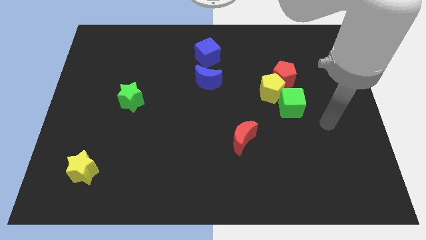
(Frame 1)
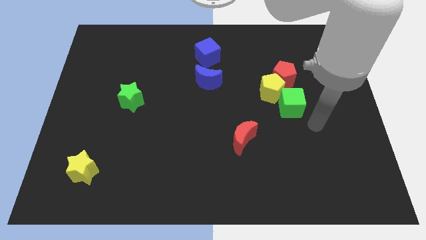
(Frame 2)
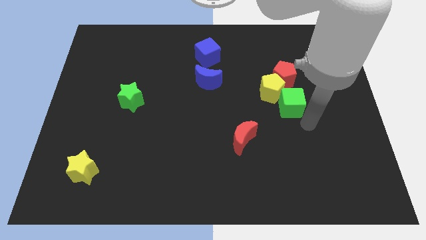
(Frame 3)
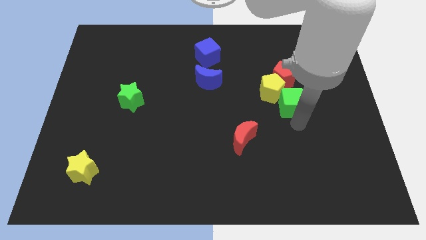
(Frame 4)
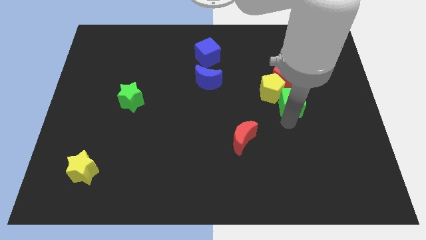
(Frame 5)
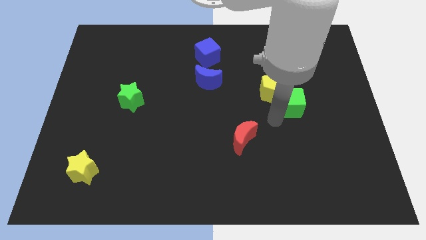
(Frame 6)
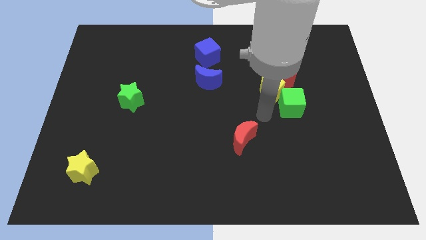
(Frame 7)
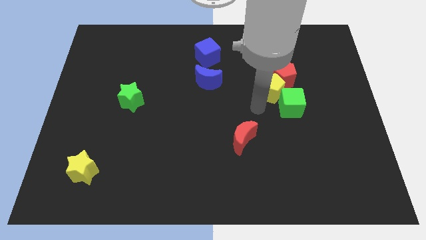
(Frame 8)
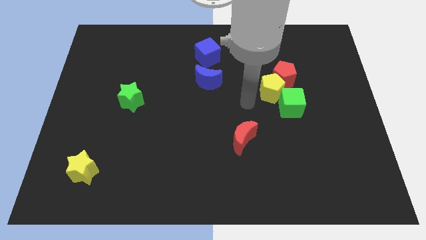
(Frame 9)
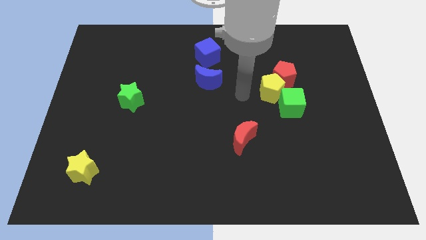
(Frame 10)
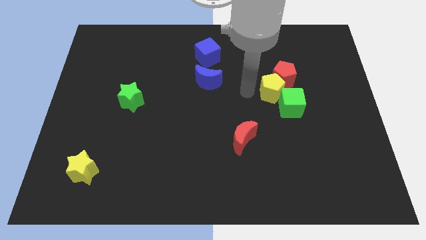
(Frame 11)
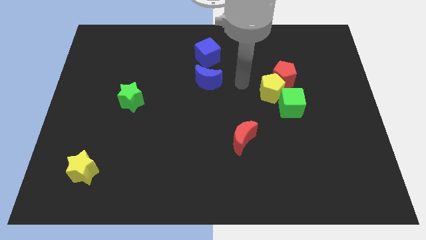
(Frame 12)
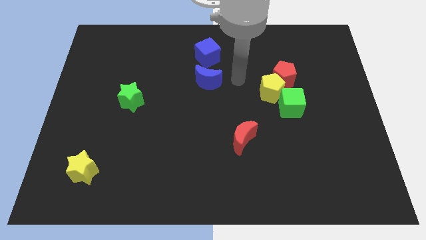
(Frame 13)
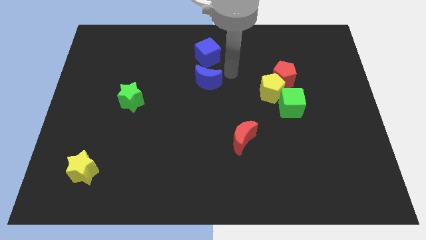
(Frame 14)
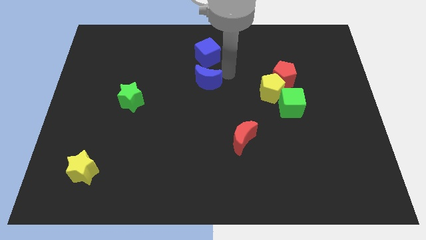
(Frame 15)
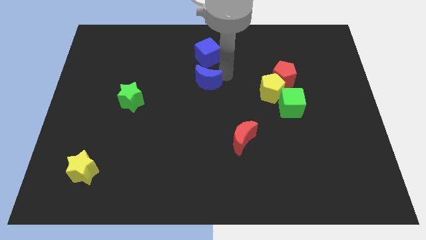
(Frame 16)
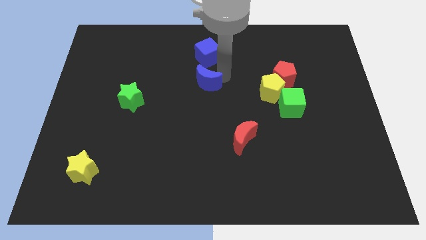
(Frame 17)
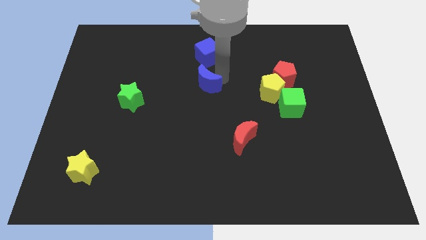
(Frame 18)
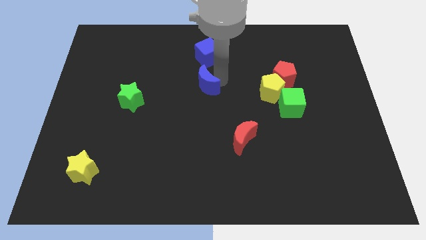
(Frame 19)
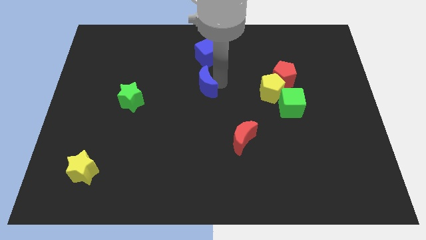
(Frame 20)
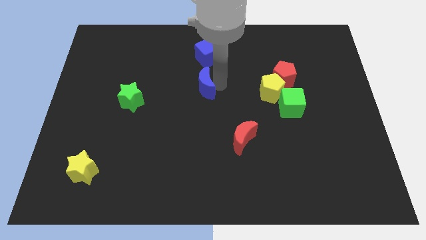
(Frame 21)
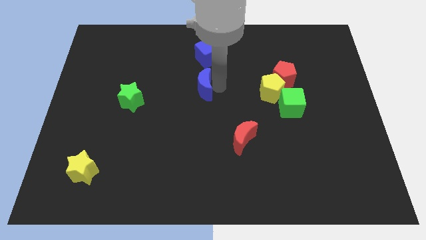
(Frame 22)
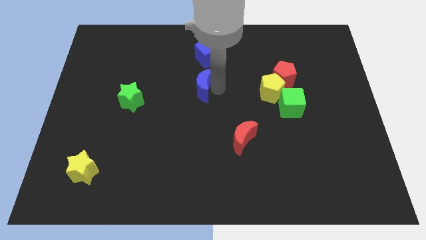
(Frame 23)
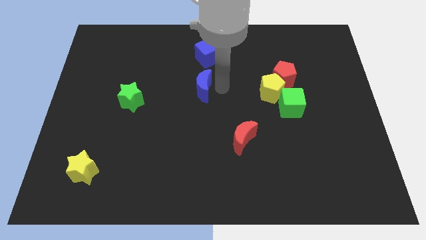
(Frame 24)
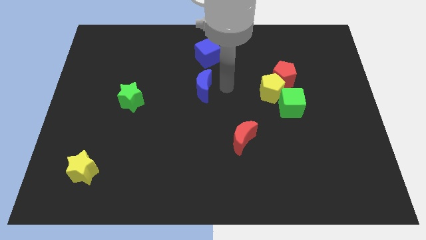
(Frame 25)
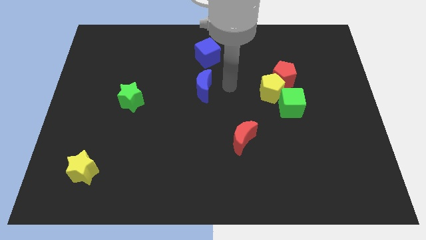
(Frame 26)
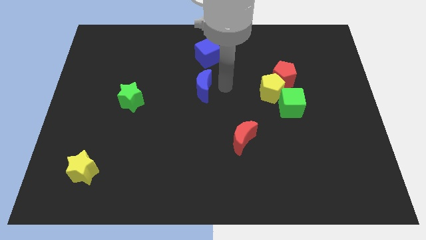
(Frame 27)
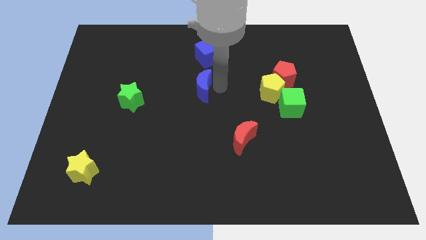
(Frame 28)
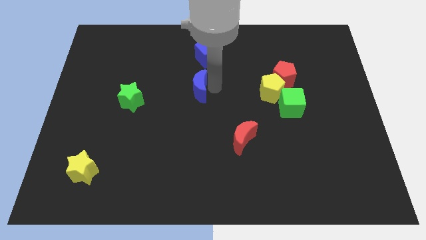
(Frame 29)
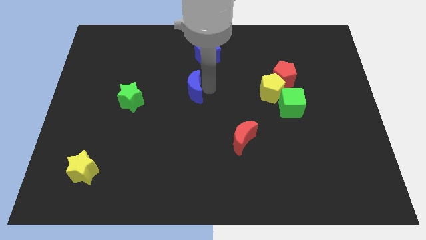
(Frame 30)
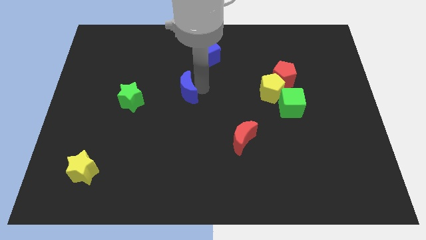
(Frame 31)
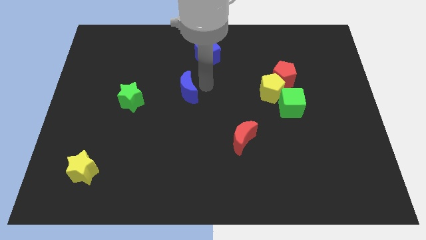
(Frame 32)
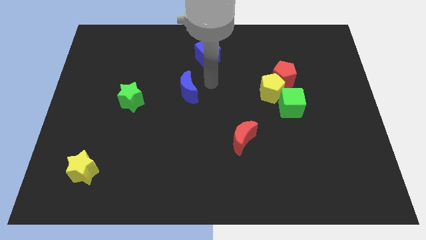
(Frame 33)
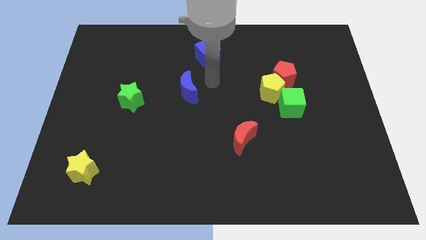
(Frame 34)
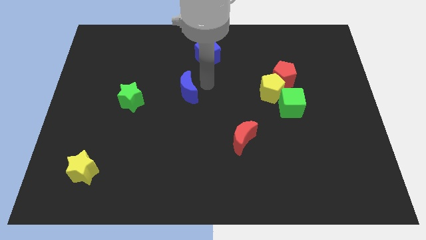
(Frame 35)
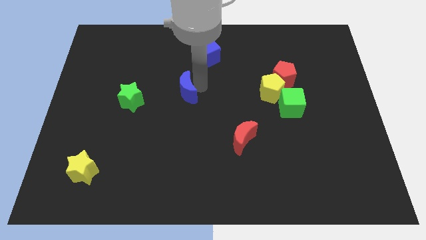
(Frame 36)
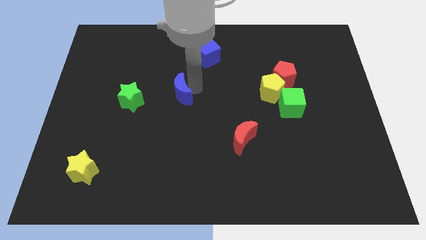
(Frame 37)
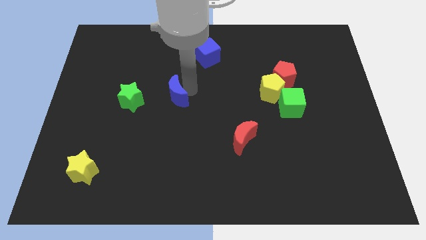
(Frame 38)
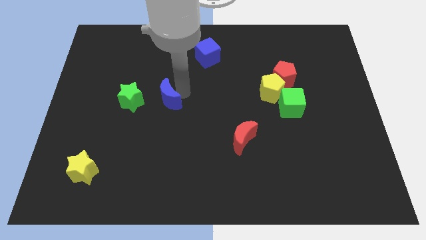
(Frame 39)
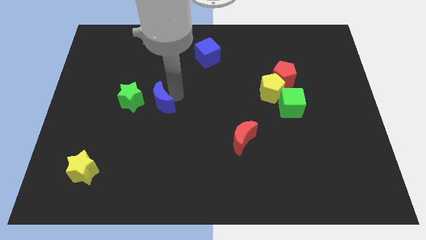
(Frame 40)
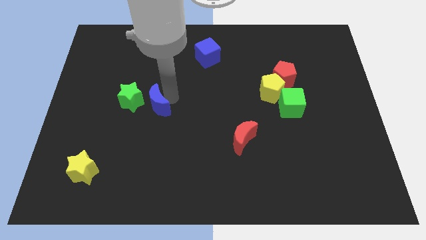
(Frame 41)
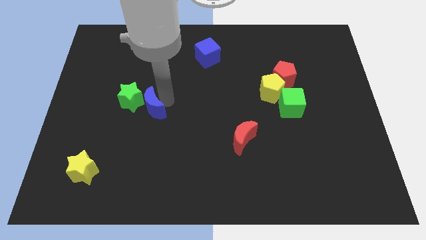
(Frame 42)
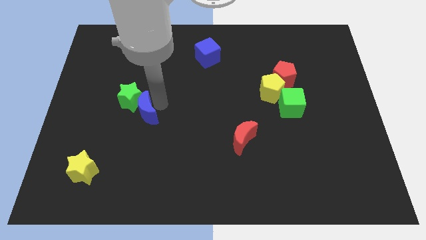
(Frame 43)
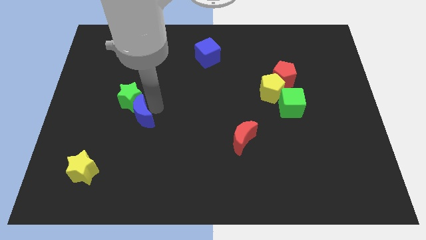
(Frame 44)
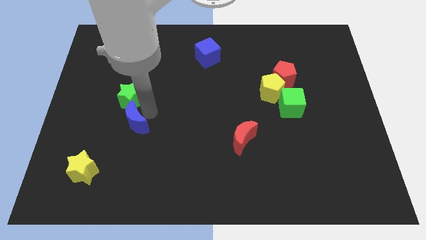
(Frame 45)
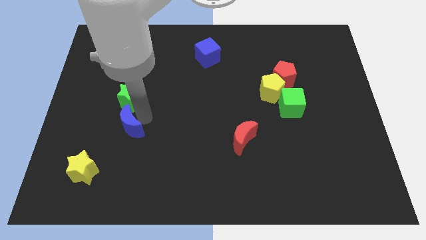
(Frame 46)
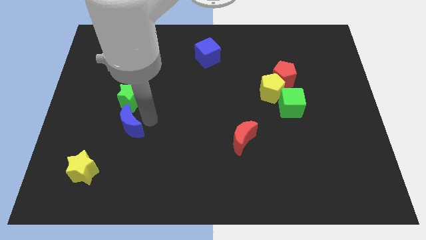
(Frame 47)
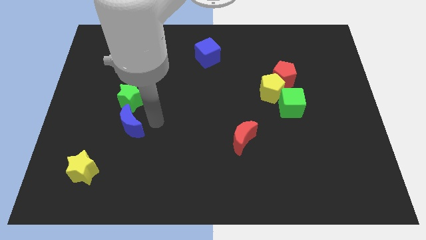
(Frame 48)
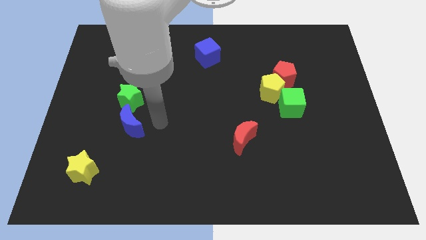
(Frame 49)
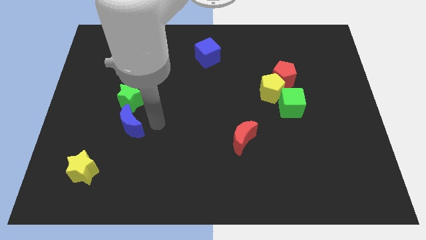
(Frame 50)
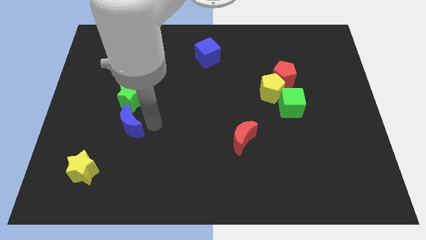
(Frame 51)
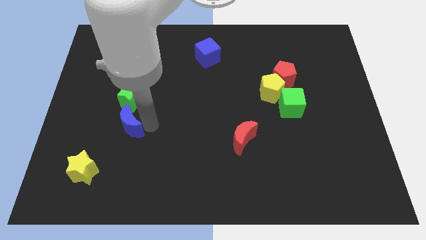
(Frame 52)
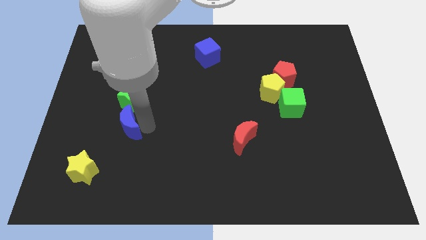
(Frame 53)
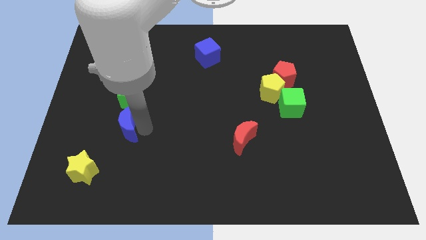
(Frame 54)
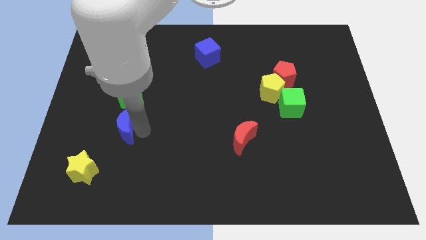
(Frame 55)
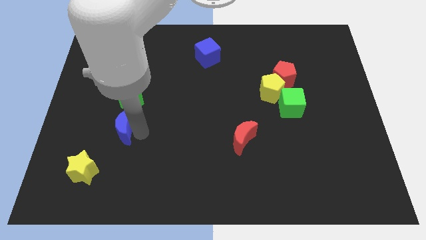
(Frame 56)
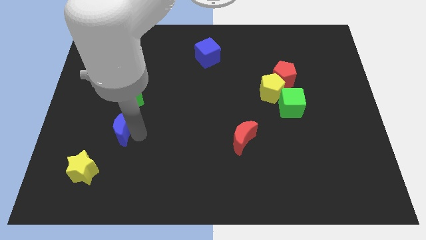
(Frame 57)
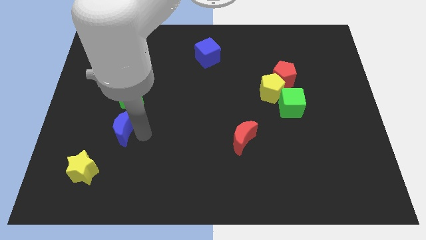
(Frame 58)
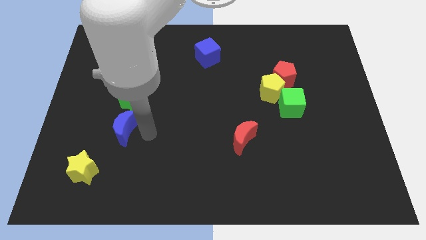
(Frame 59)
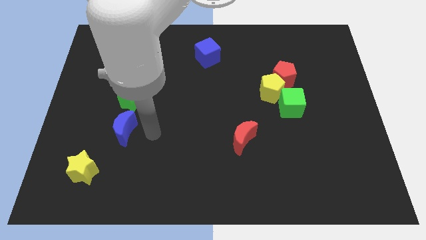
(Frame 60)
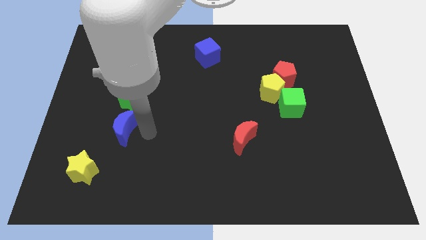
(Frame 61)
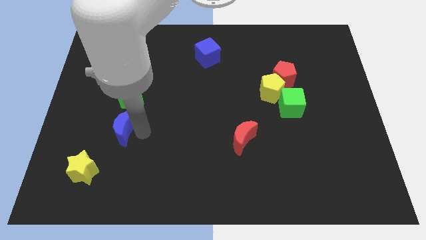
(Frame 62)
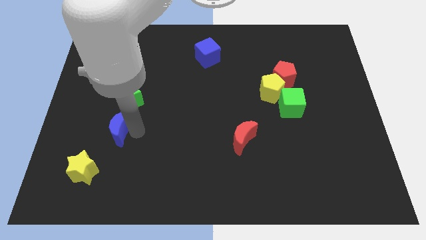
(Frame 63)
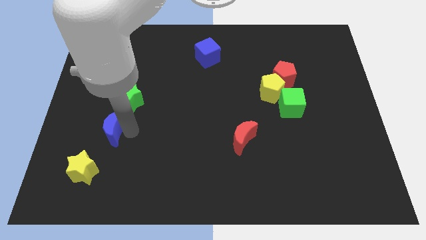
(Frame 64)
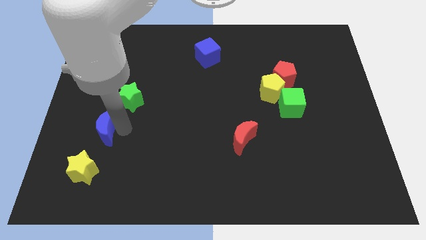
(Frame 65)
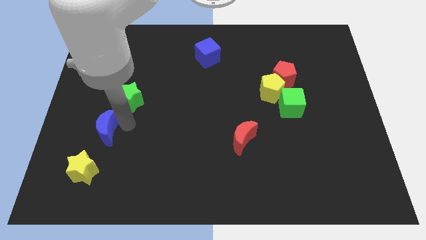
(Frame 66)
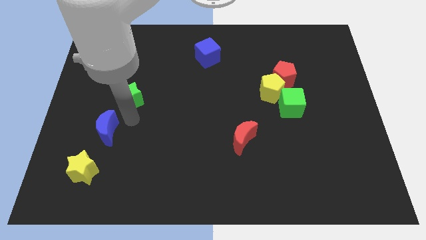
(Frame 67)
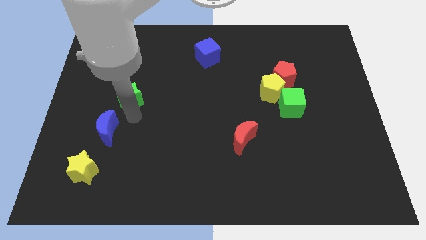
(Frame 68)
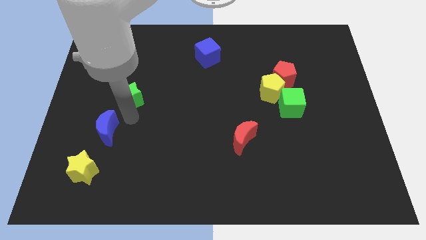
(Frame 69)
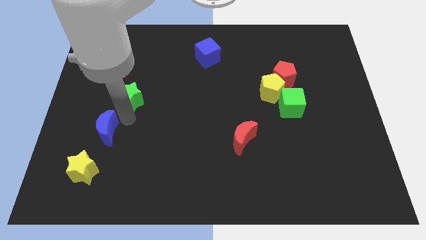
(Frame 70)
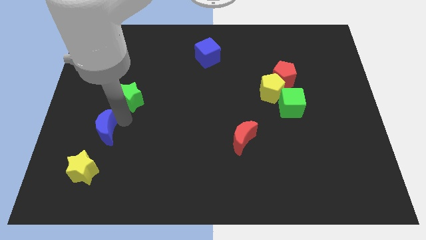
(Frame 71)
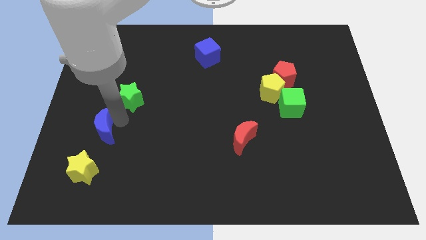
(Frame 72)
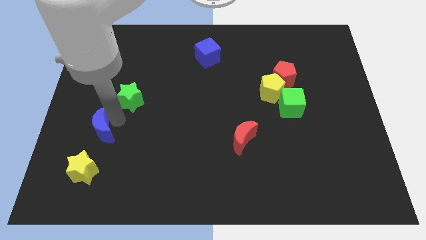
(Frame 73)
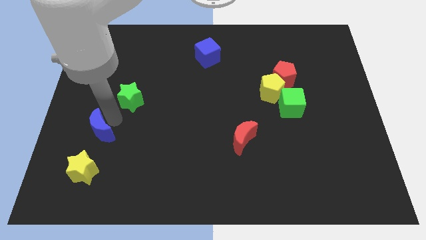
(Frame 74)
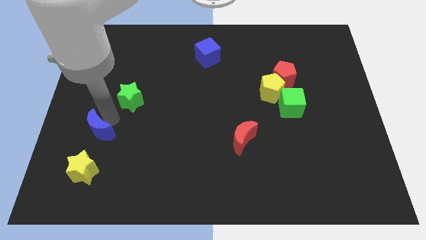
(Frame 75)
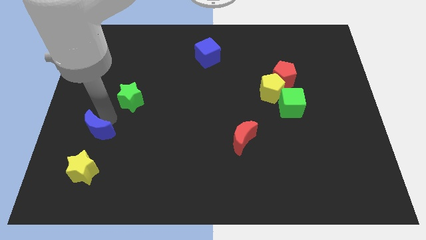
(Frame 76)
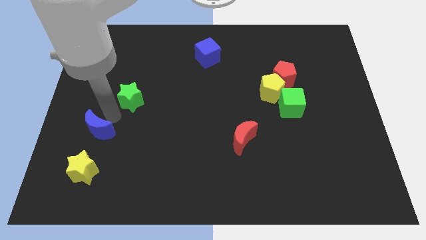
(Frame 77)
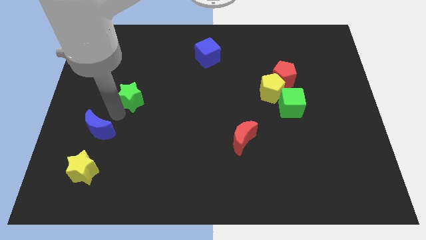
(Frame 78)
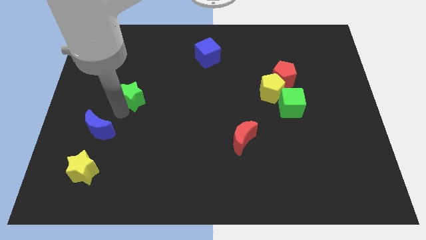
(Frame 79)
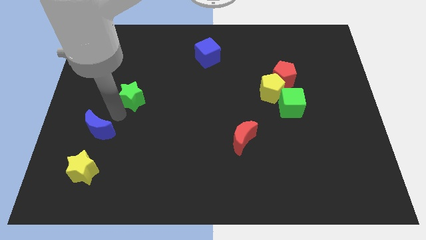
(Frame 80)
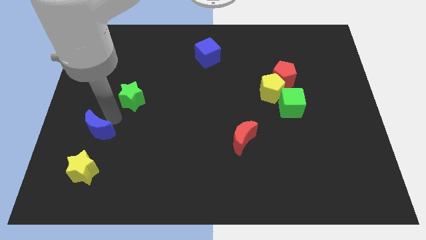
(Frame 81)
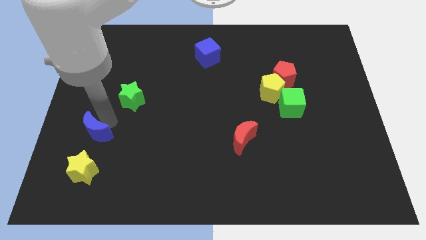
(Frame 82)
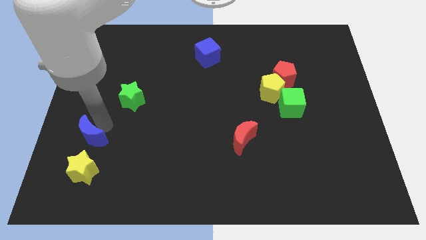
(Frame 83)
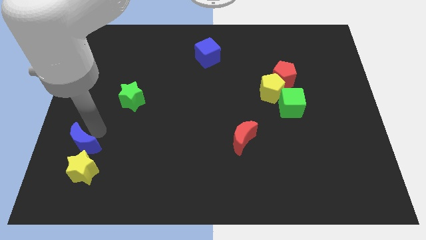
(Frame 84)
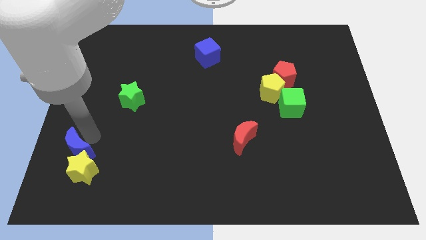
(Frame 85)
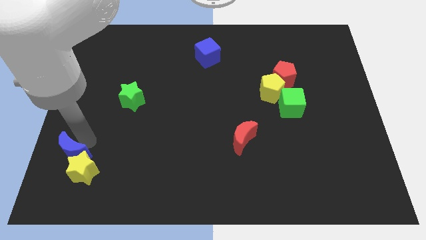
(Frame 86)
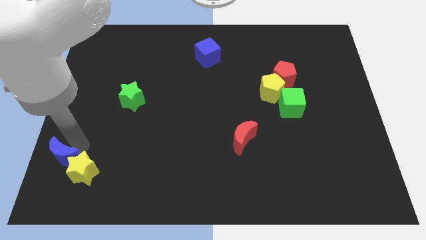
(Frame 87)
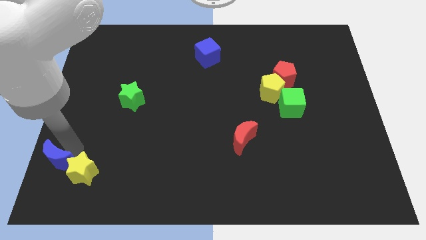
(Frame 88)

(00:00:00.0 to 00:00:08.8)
push the blue moon to the lower left corner
